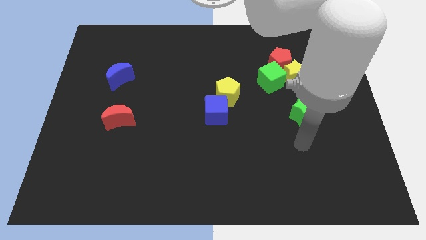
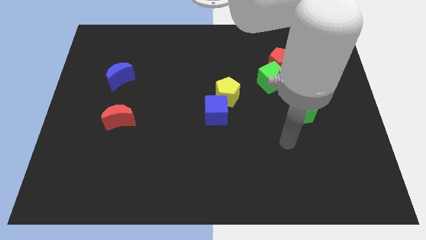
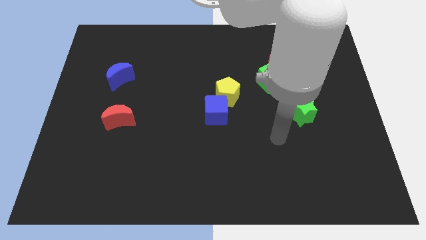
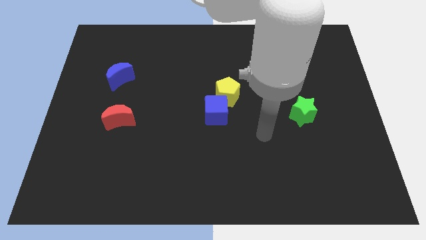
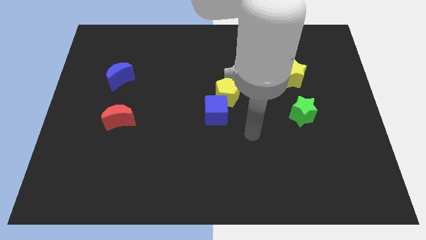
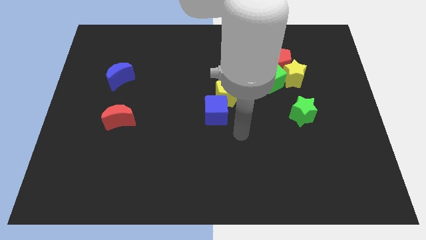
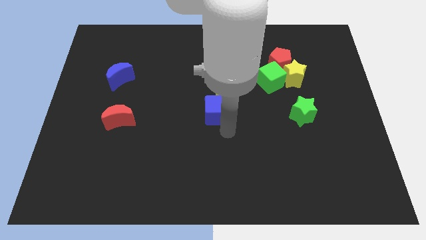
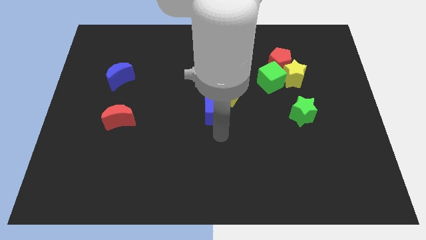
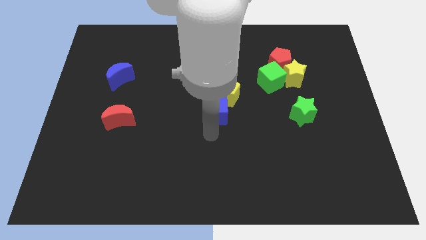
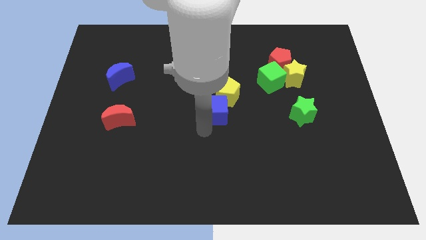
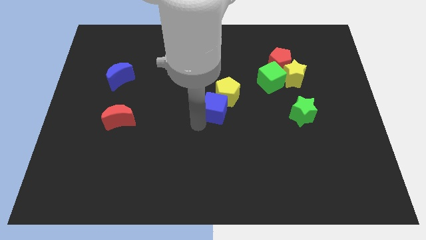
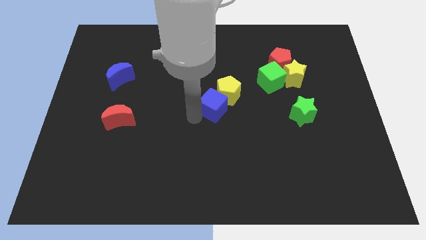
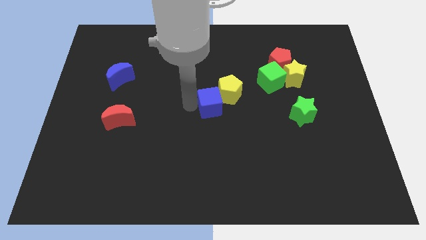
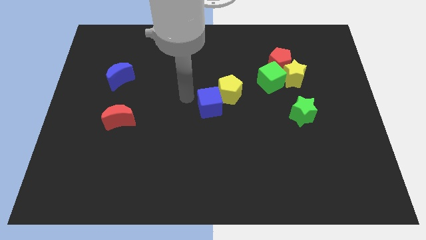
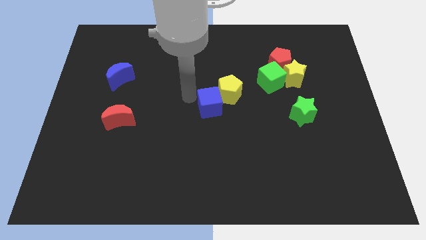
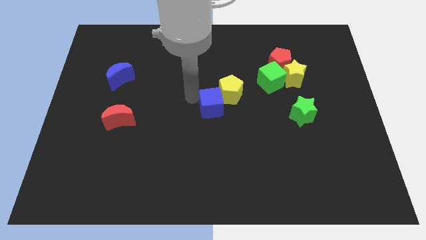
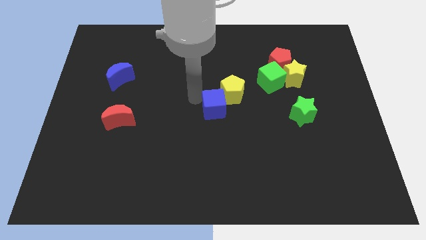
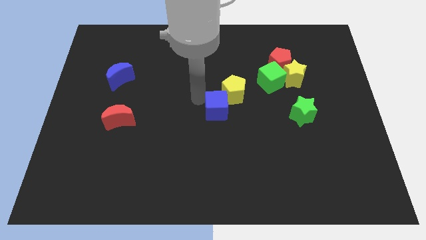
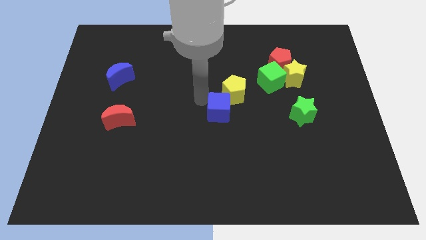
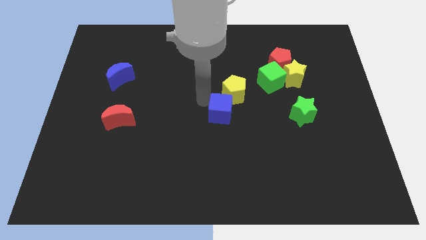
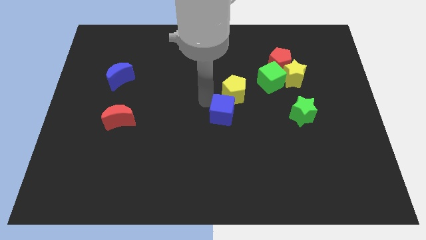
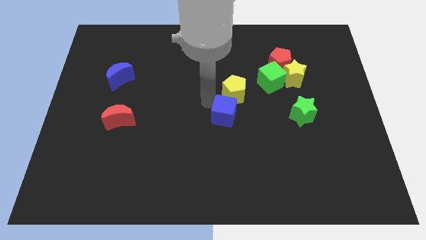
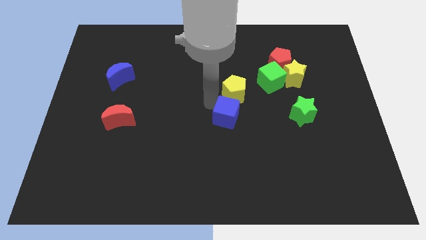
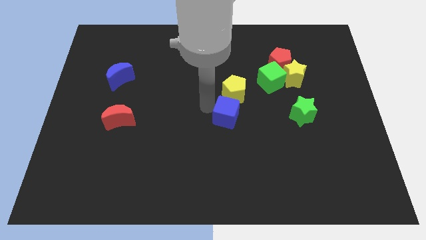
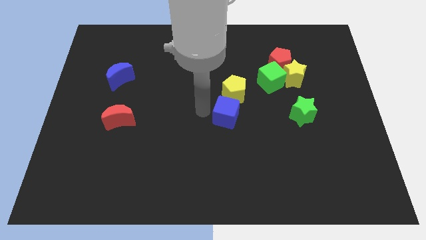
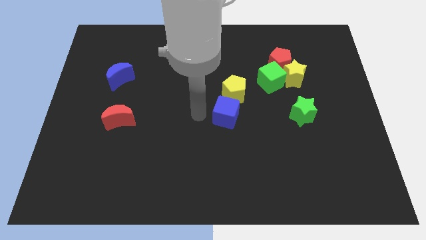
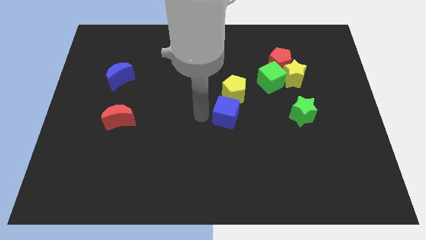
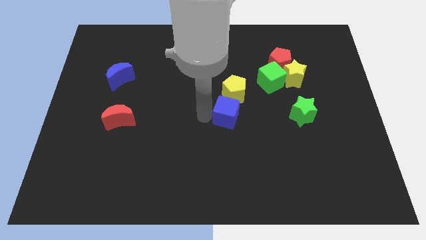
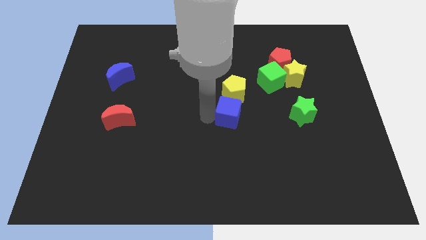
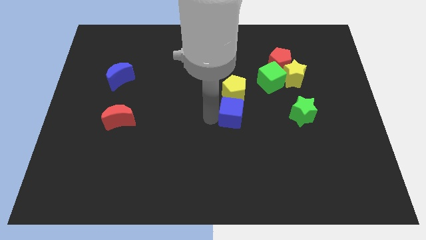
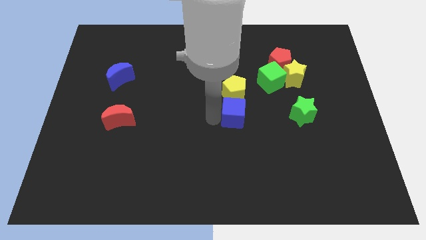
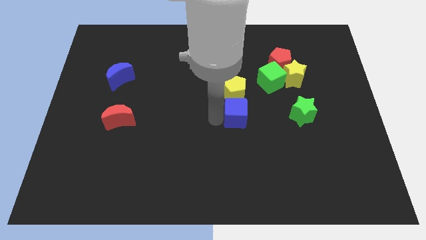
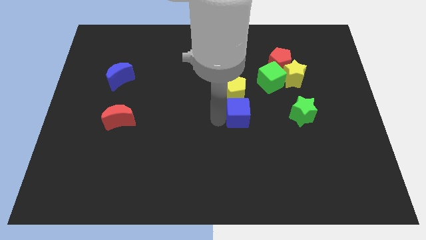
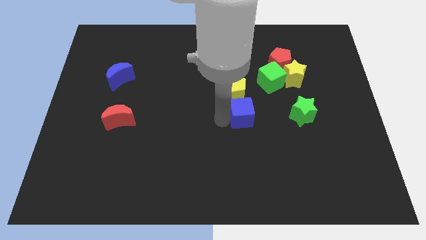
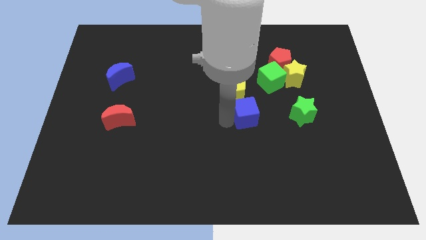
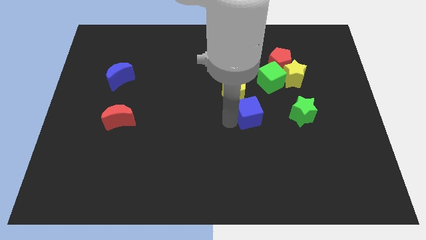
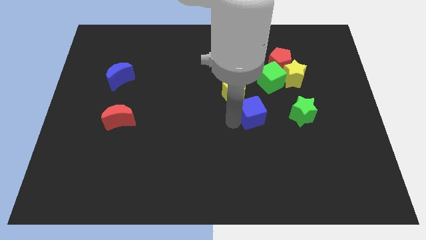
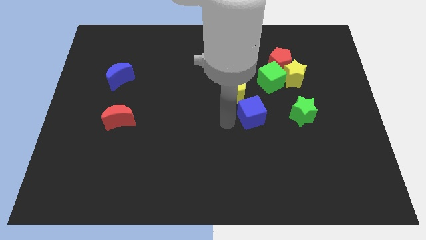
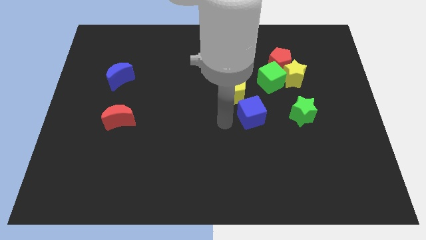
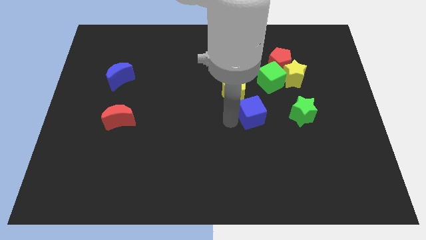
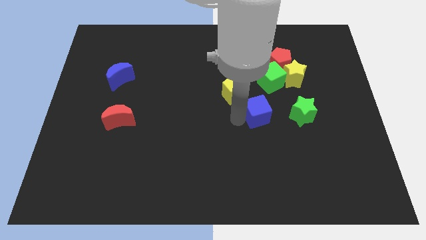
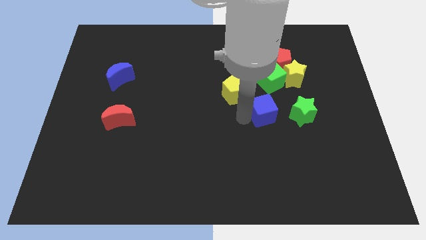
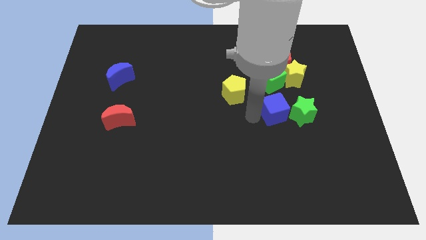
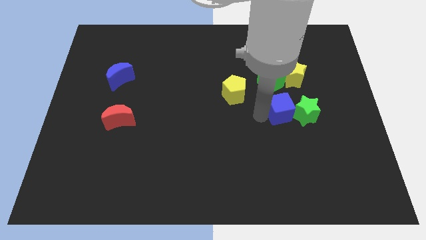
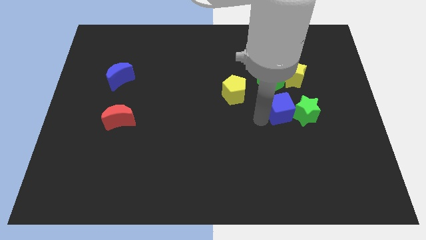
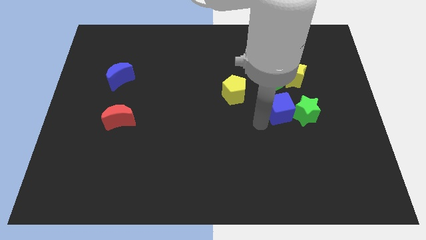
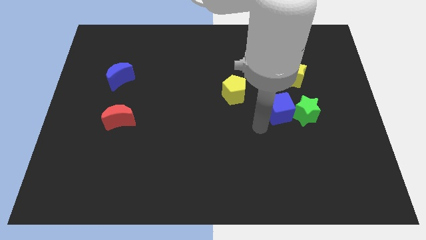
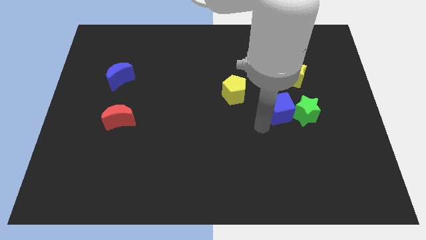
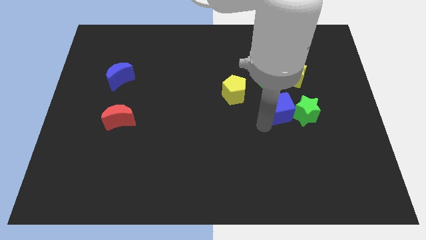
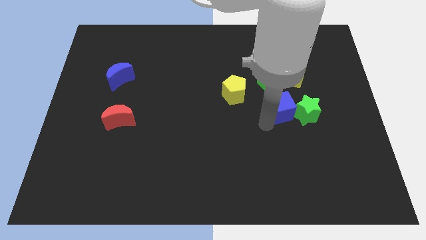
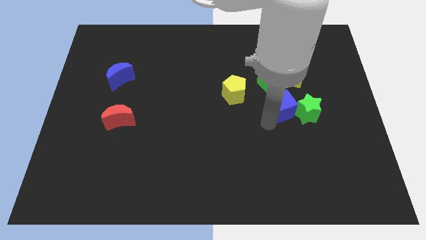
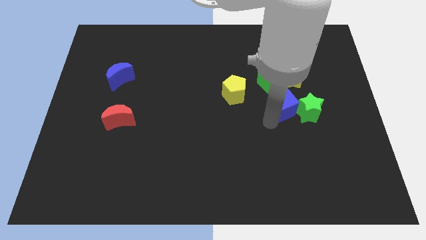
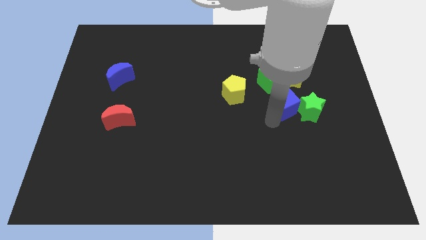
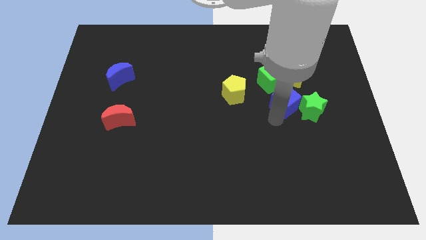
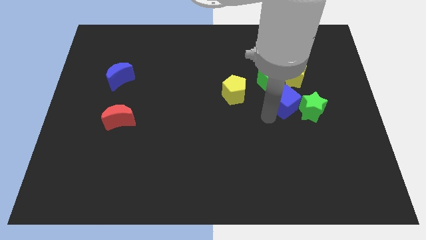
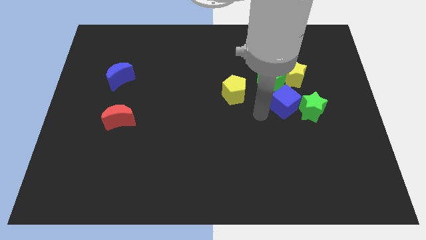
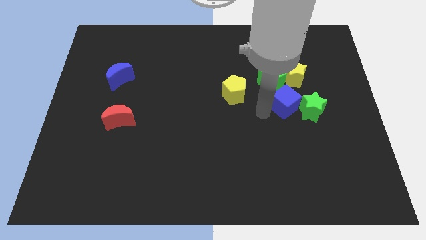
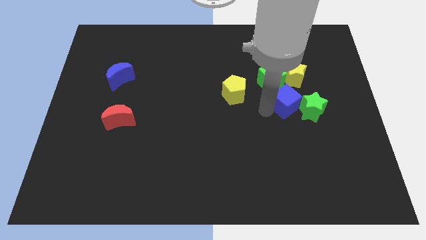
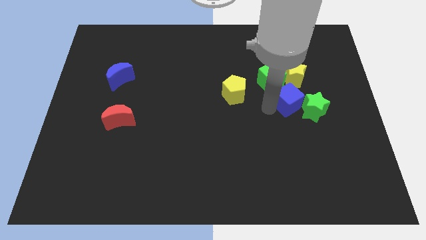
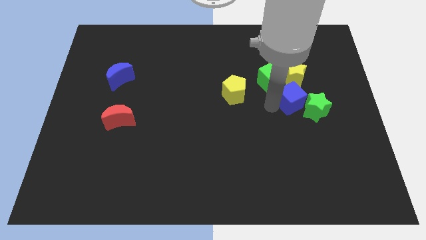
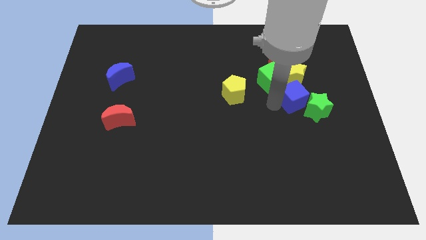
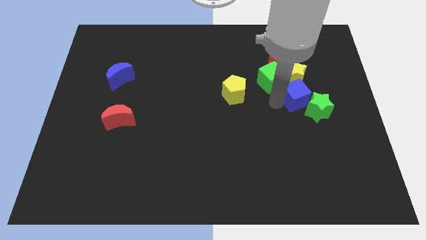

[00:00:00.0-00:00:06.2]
move the blue cube to the bottom right of the yellow star

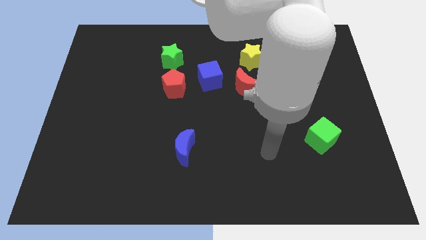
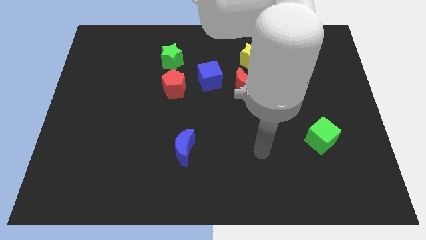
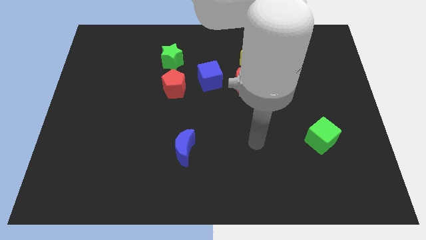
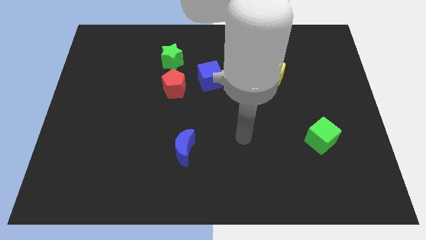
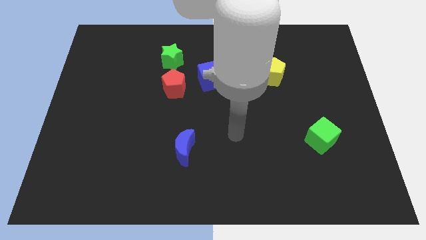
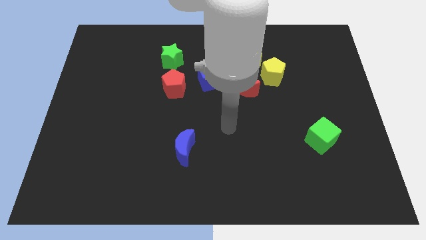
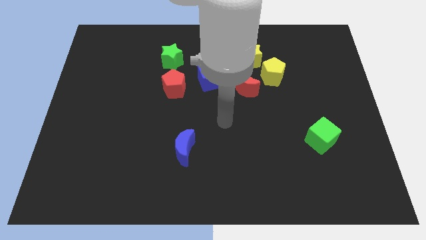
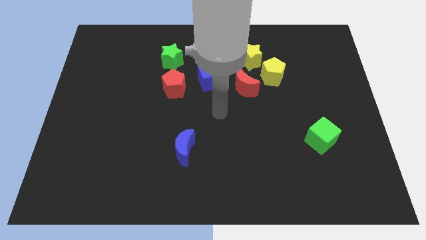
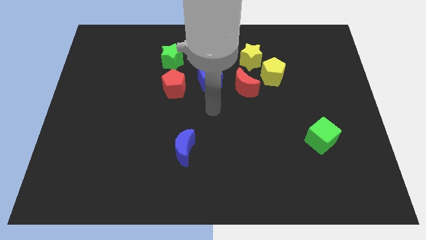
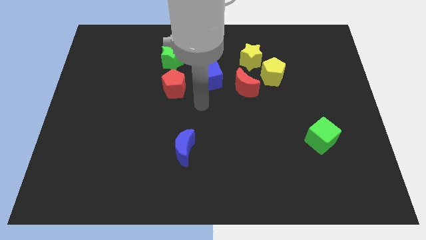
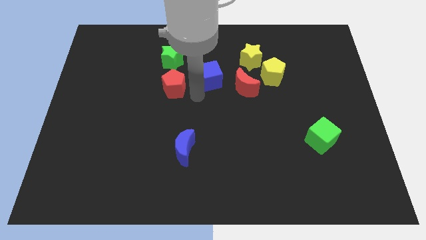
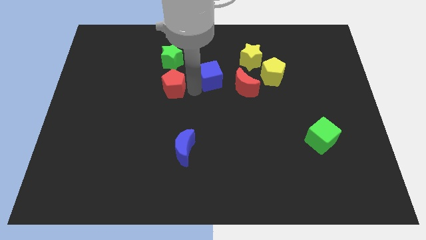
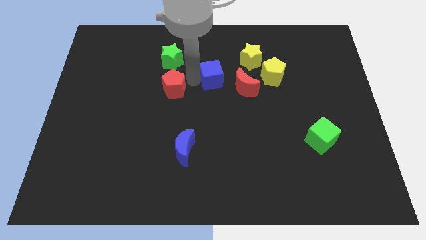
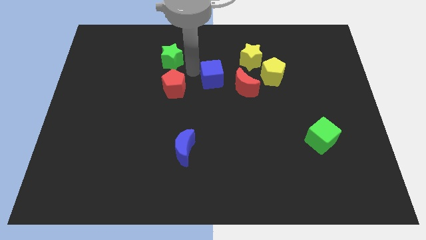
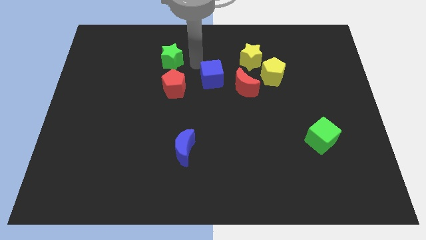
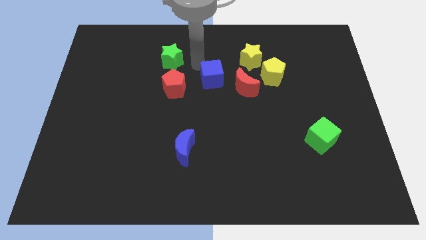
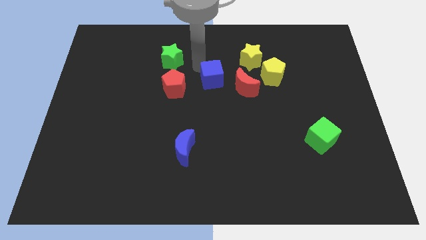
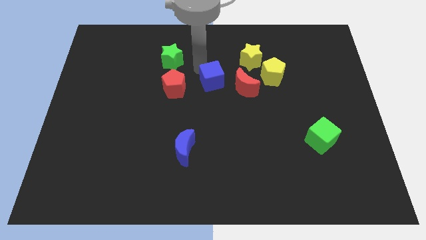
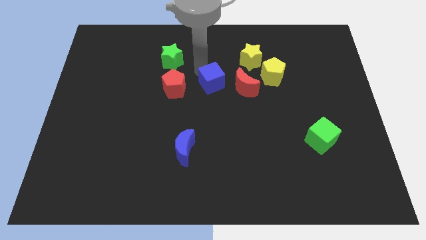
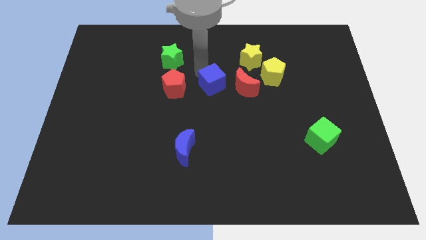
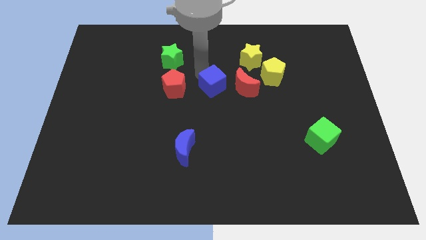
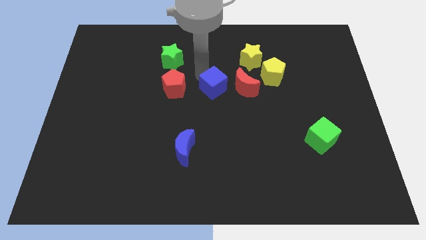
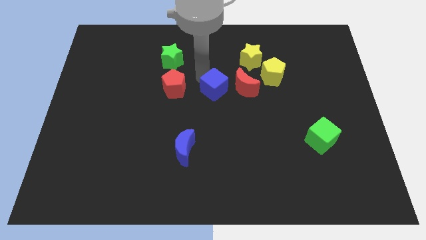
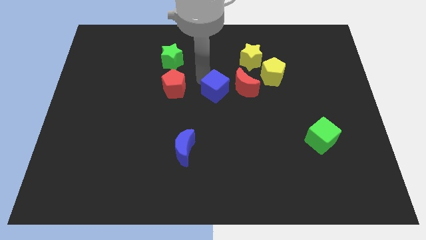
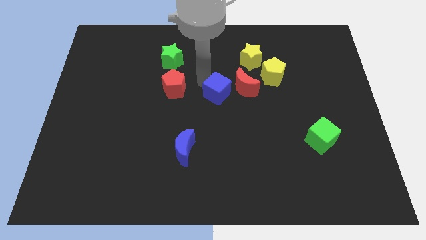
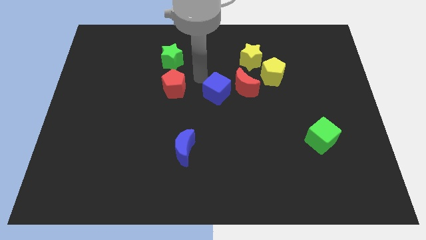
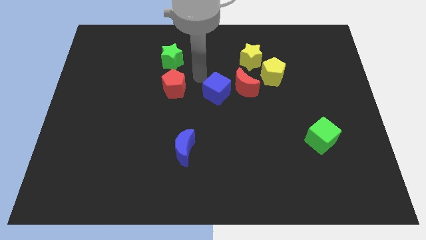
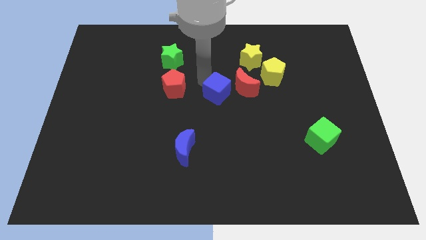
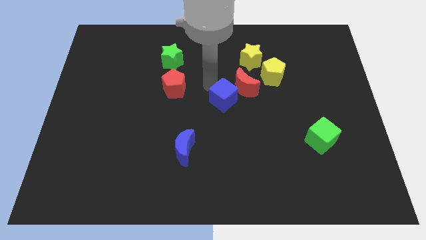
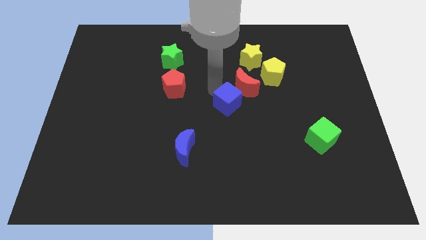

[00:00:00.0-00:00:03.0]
move the blue cube to the bottom of the red moon
